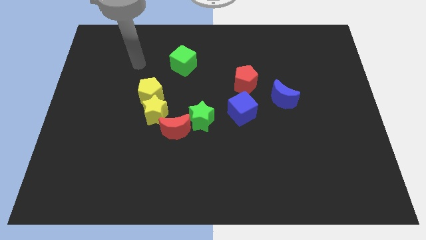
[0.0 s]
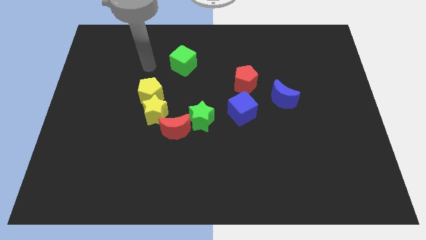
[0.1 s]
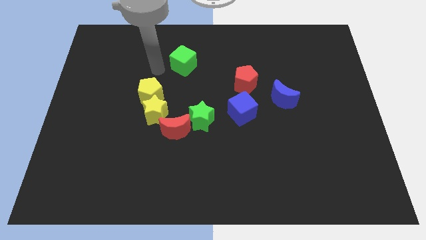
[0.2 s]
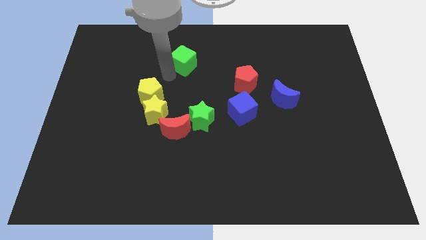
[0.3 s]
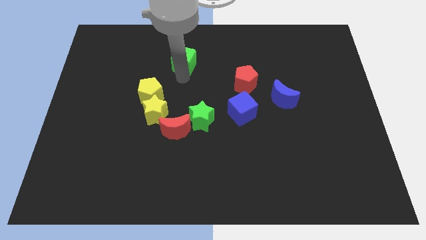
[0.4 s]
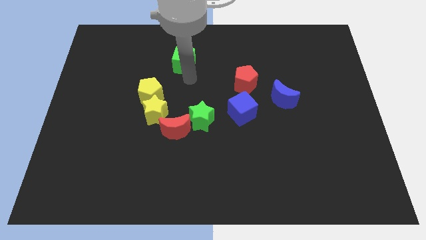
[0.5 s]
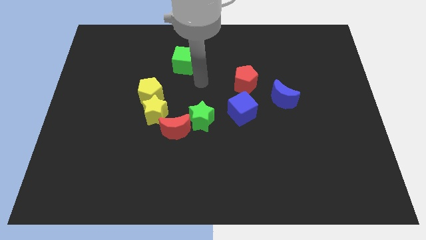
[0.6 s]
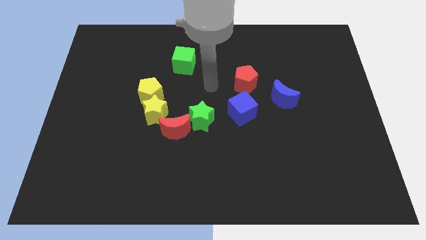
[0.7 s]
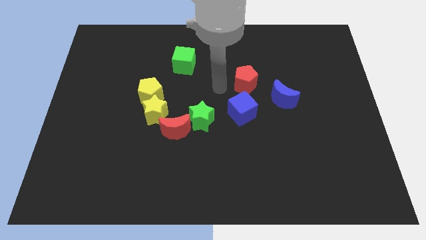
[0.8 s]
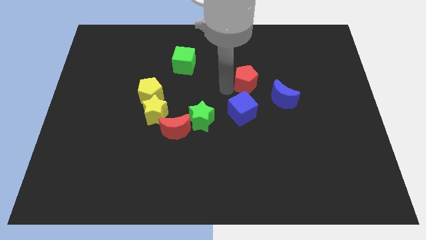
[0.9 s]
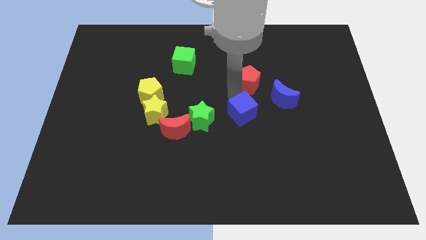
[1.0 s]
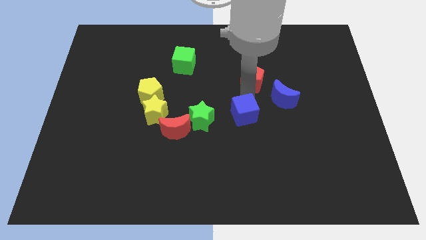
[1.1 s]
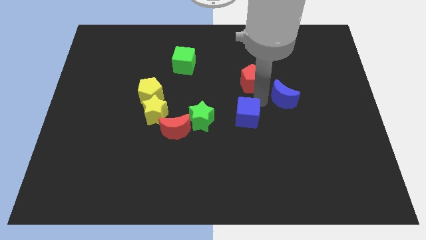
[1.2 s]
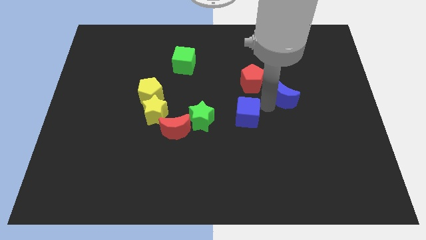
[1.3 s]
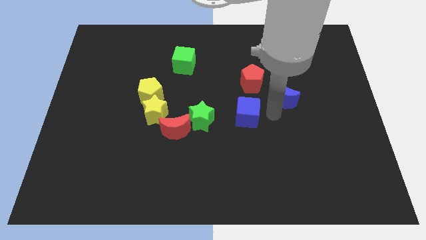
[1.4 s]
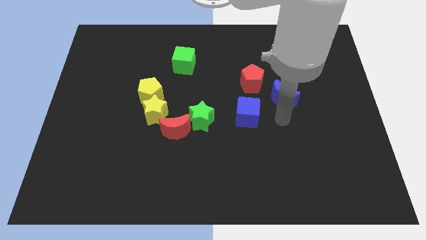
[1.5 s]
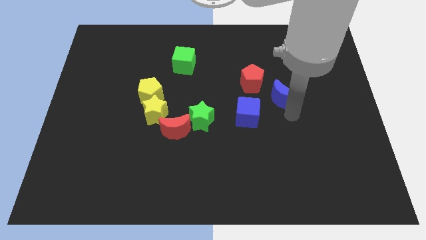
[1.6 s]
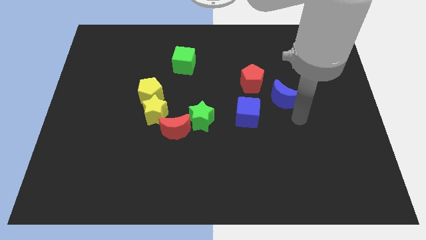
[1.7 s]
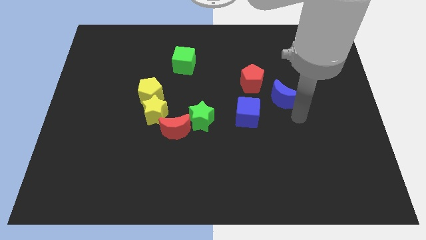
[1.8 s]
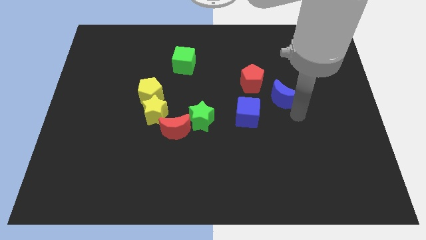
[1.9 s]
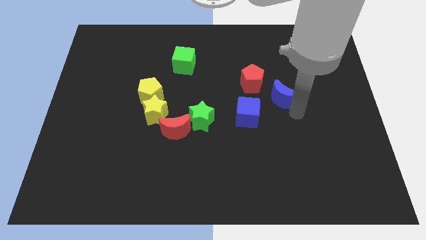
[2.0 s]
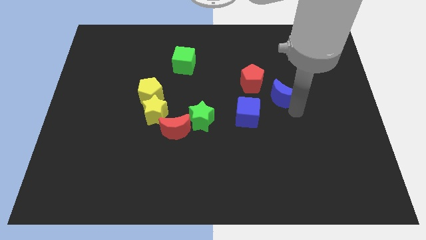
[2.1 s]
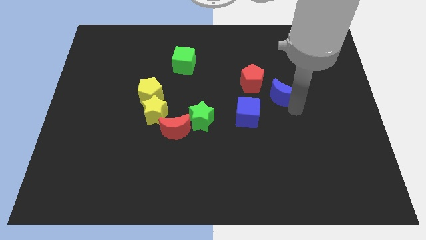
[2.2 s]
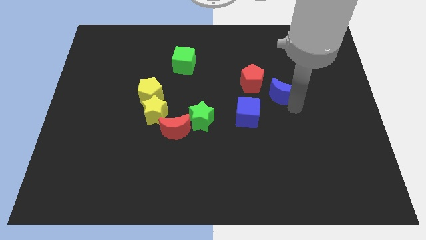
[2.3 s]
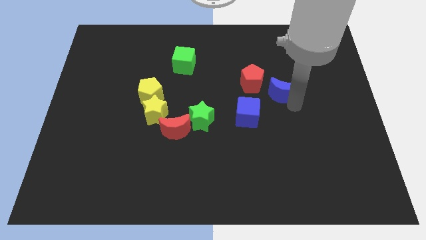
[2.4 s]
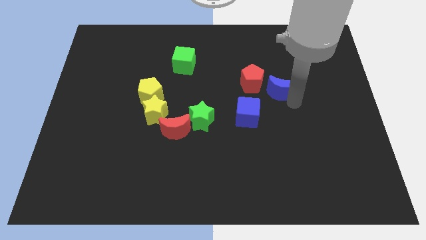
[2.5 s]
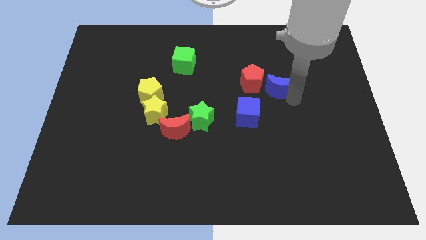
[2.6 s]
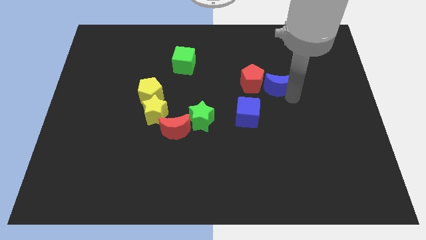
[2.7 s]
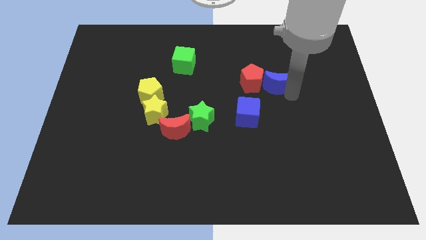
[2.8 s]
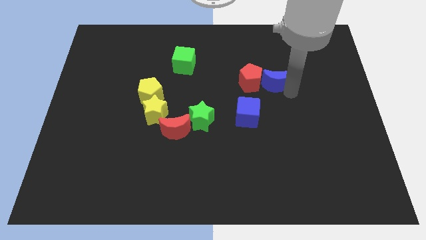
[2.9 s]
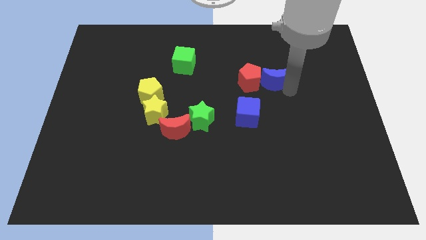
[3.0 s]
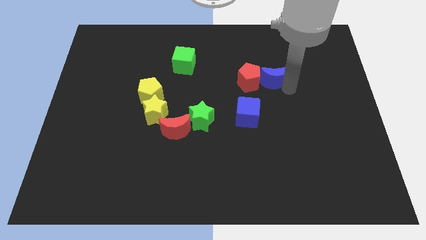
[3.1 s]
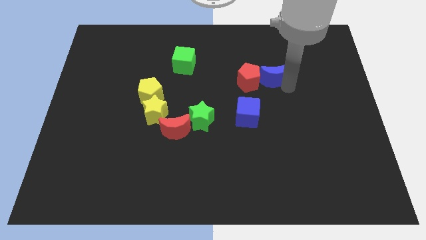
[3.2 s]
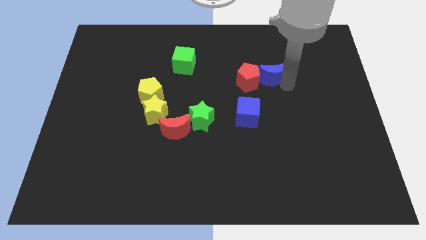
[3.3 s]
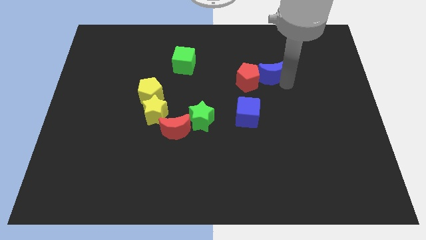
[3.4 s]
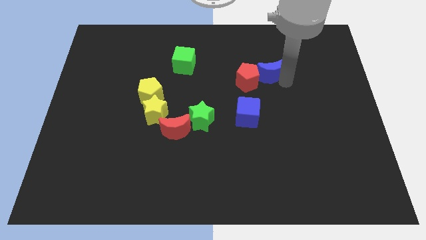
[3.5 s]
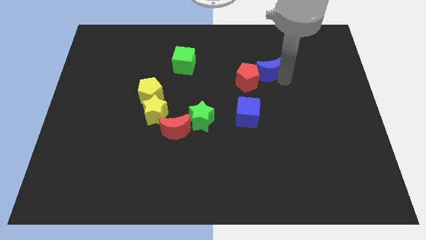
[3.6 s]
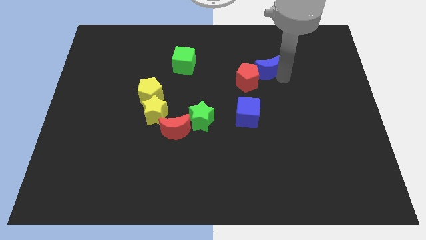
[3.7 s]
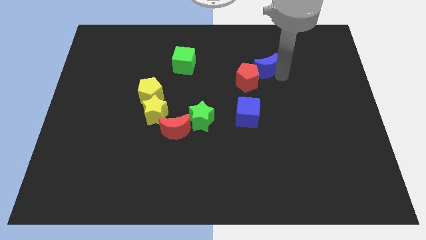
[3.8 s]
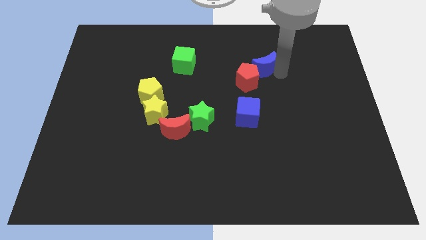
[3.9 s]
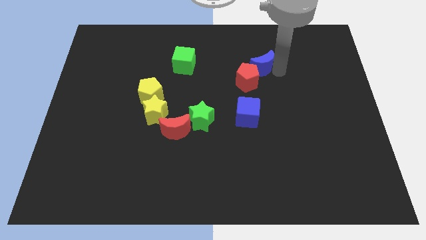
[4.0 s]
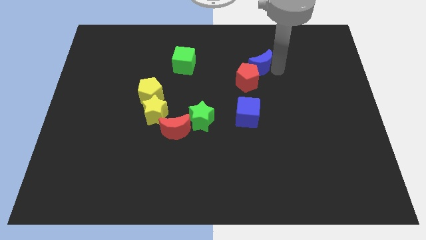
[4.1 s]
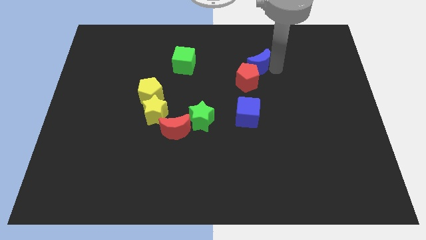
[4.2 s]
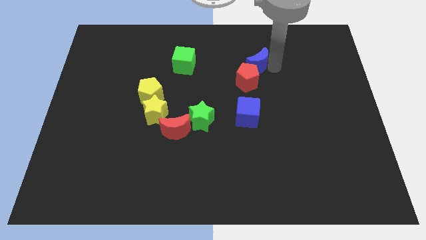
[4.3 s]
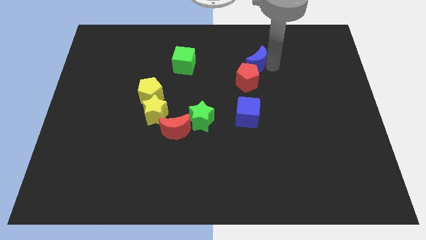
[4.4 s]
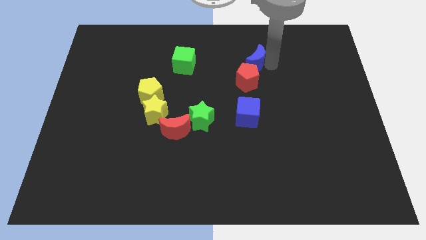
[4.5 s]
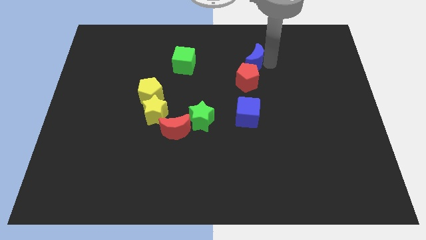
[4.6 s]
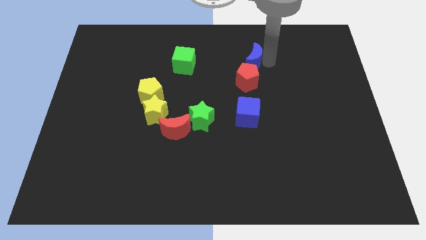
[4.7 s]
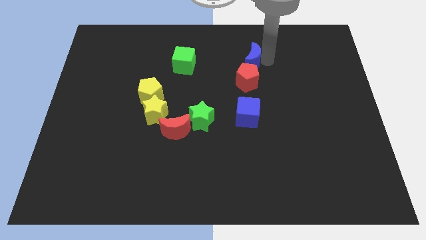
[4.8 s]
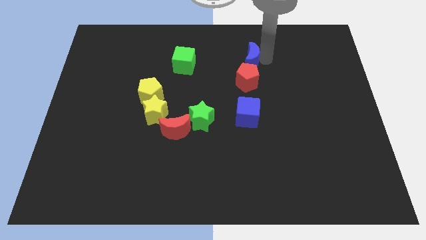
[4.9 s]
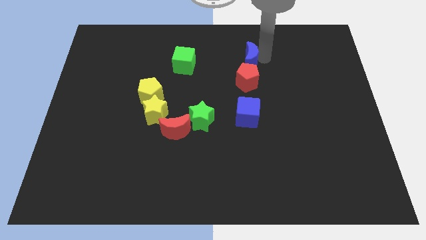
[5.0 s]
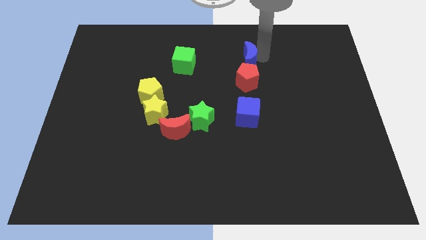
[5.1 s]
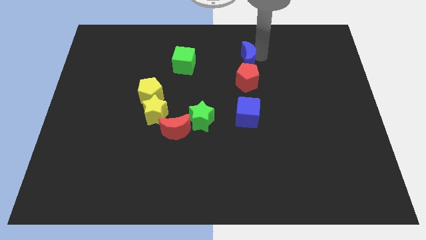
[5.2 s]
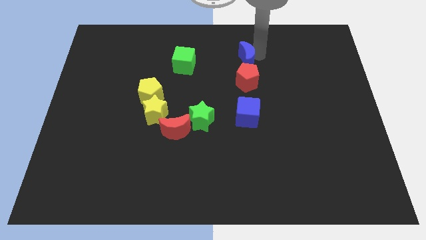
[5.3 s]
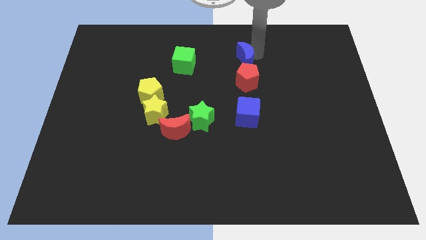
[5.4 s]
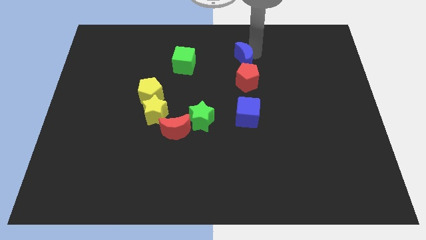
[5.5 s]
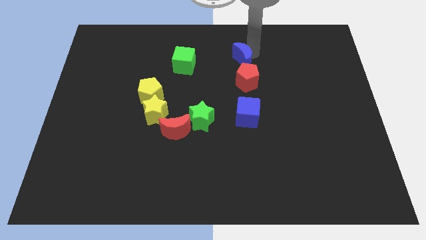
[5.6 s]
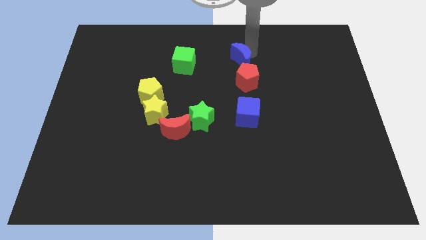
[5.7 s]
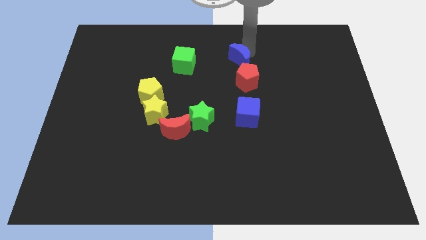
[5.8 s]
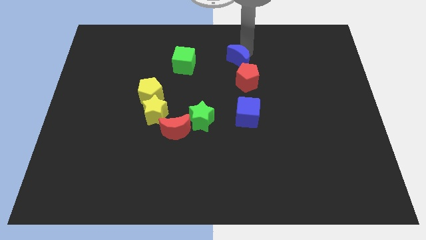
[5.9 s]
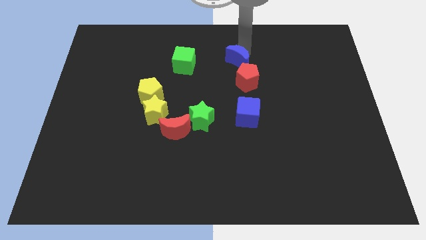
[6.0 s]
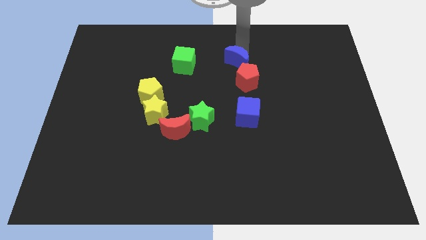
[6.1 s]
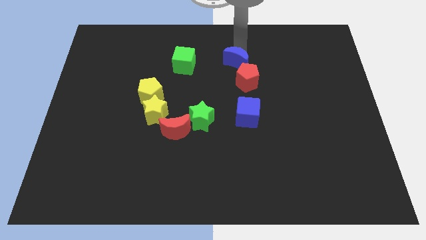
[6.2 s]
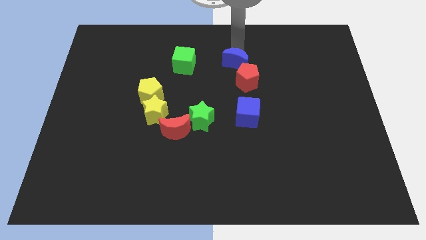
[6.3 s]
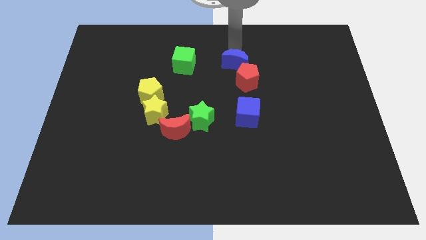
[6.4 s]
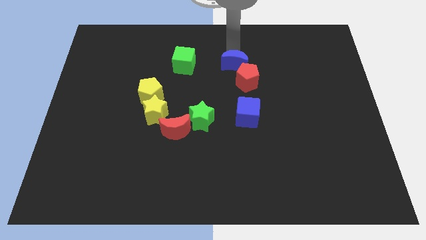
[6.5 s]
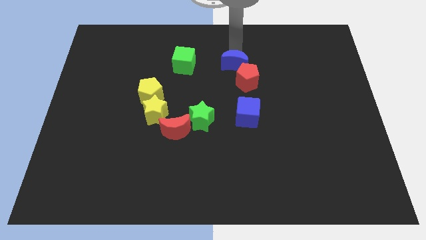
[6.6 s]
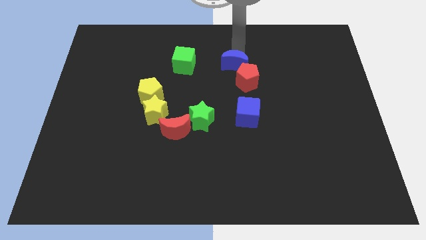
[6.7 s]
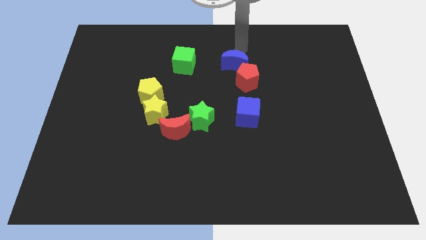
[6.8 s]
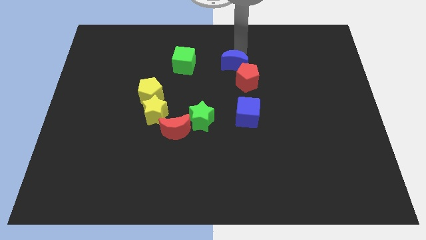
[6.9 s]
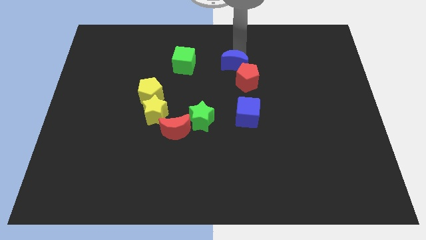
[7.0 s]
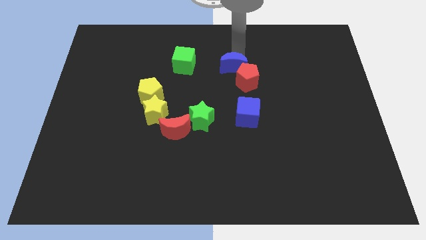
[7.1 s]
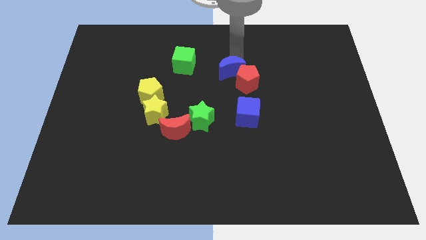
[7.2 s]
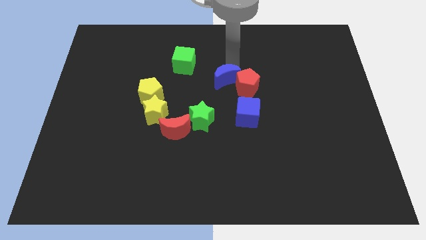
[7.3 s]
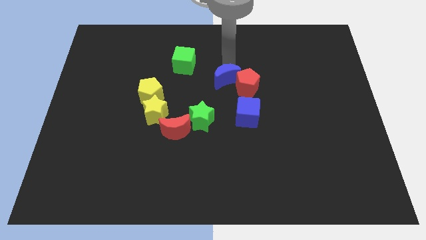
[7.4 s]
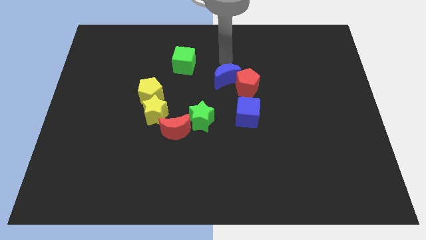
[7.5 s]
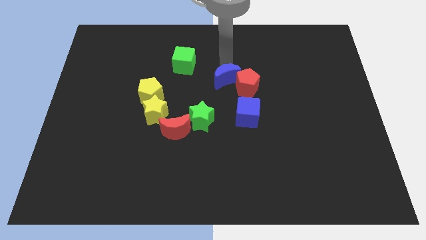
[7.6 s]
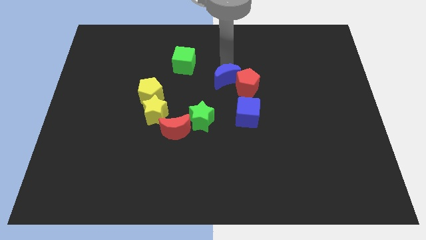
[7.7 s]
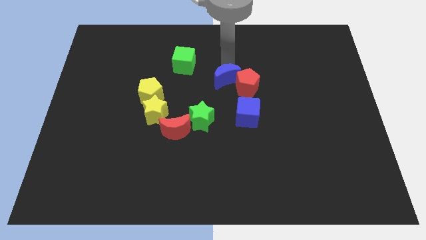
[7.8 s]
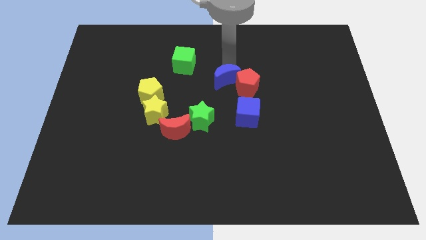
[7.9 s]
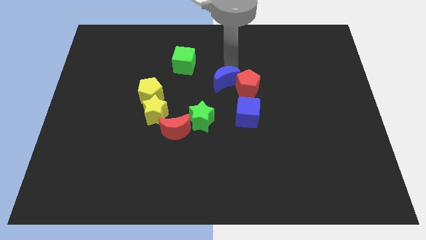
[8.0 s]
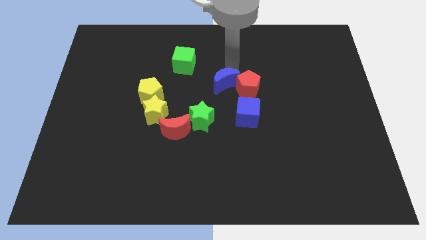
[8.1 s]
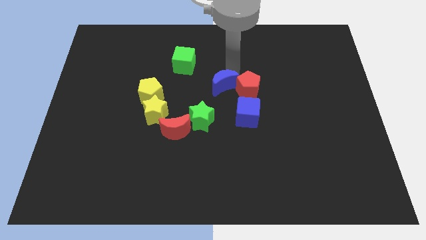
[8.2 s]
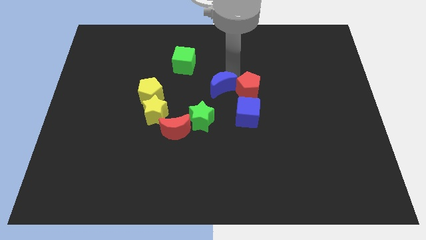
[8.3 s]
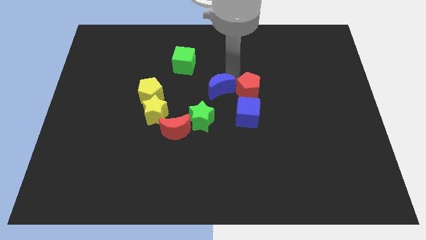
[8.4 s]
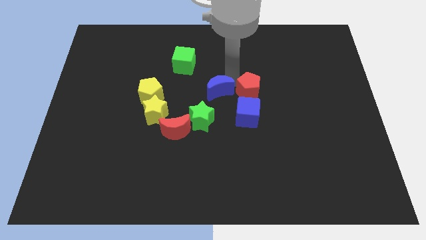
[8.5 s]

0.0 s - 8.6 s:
move the blue moon to the bottom left side of the red pentagon
